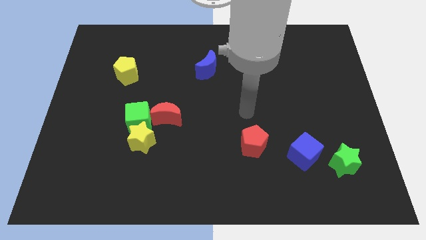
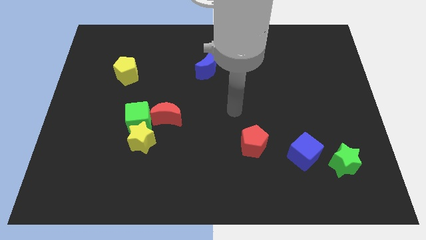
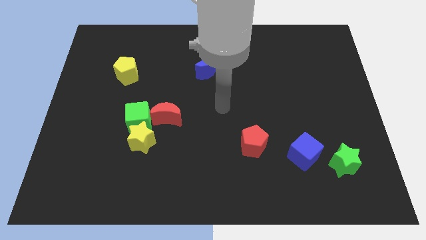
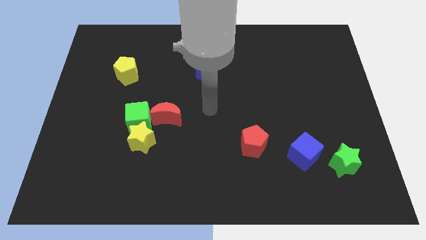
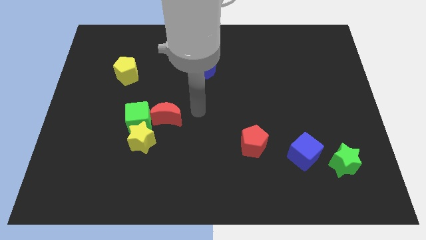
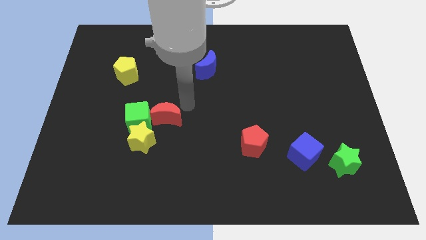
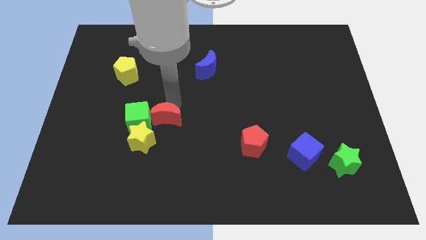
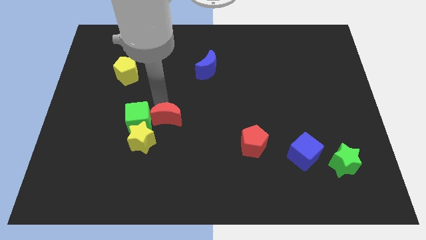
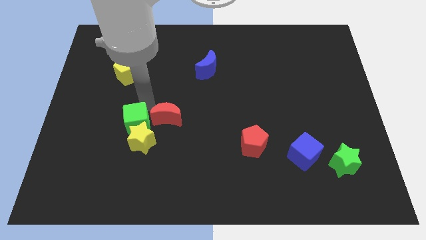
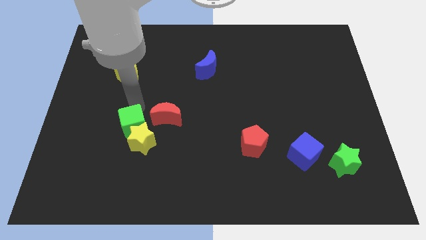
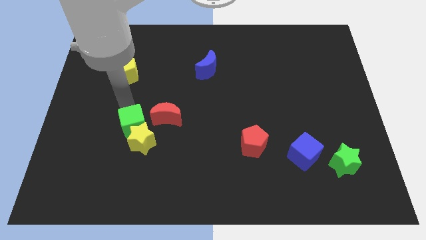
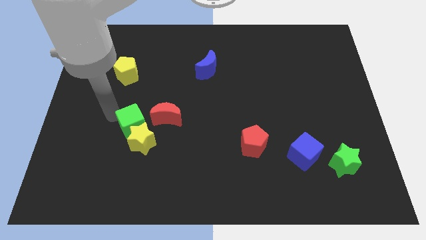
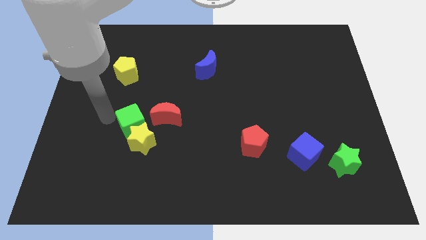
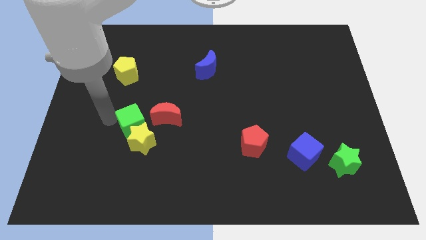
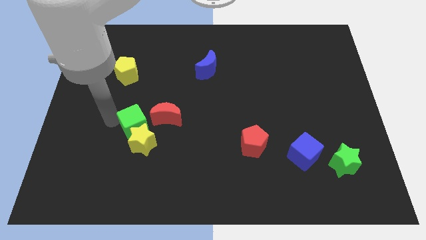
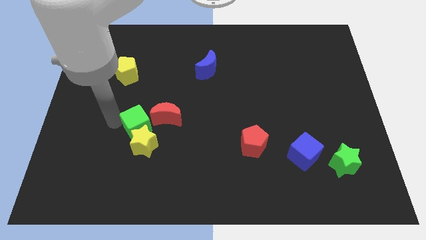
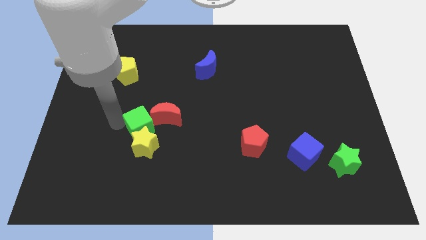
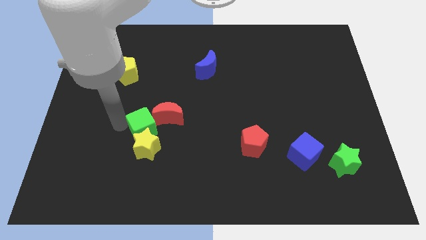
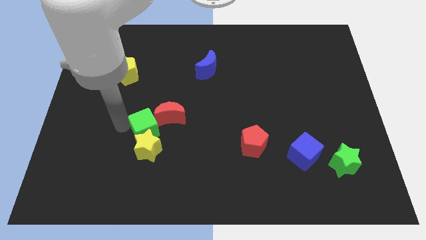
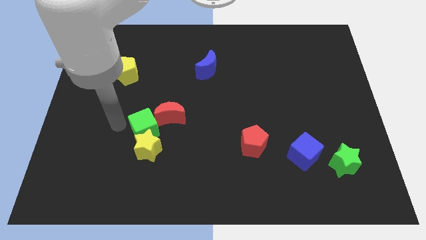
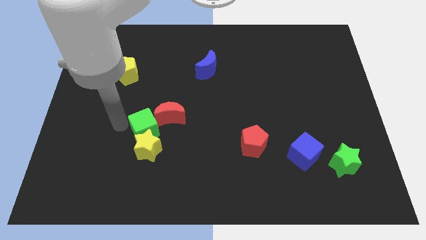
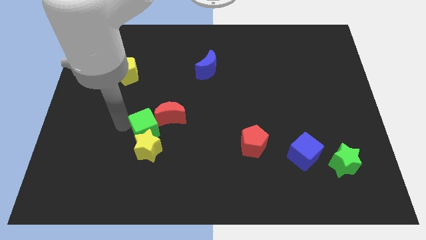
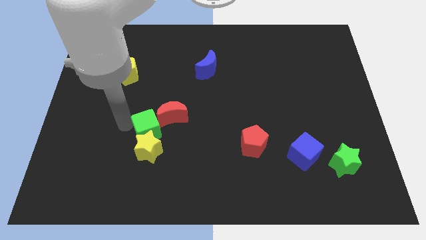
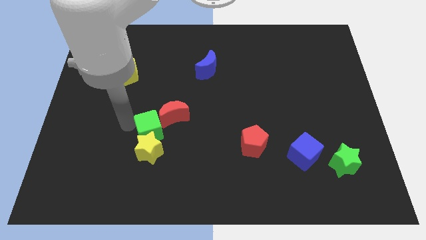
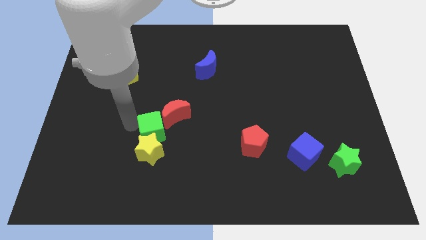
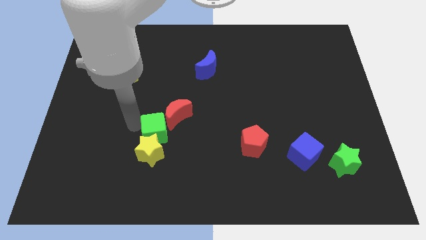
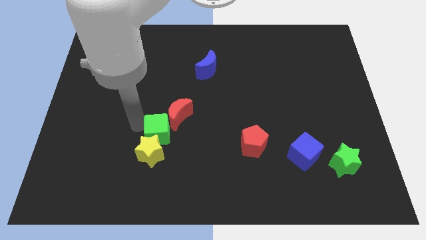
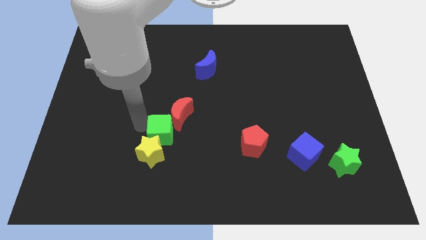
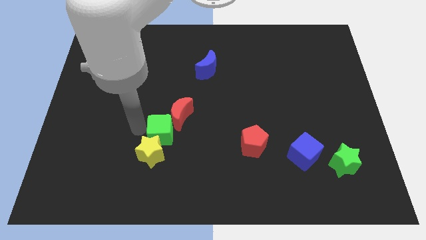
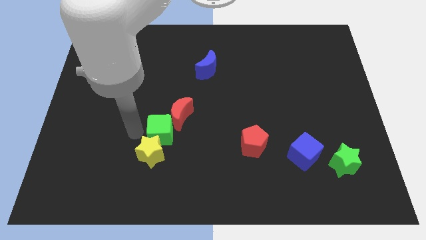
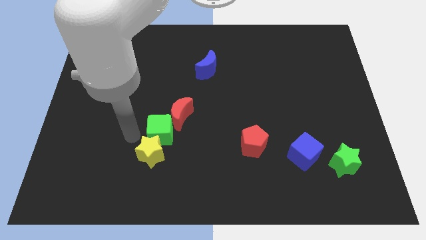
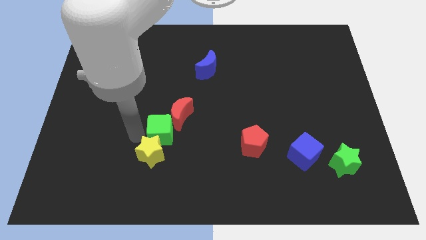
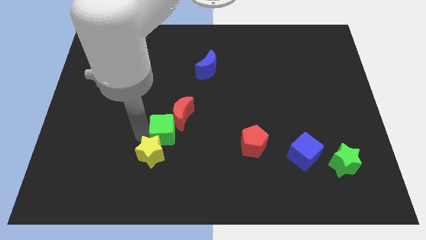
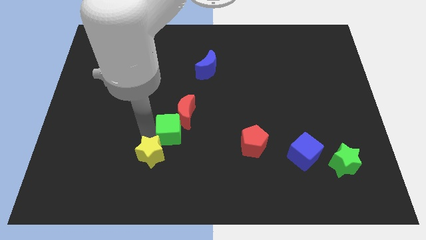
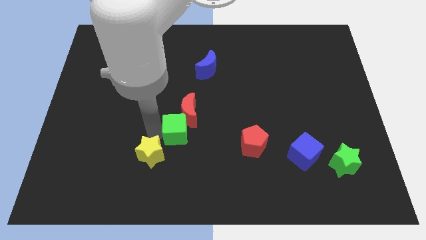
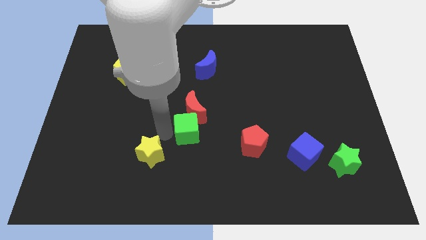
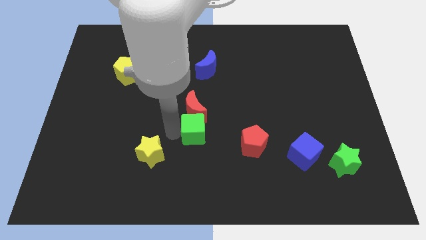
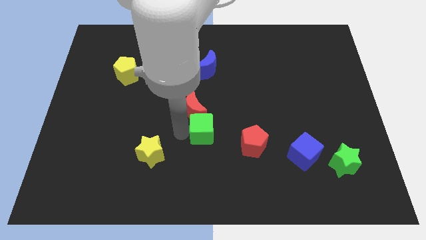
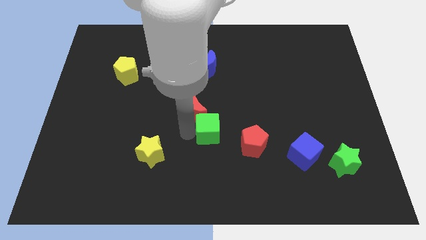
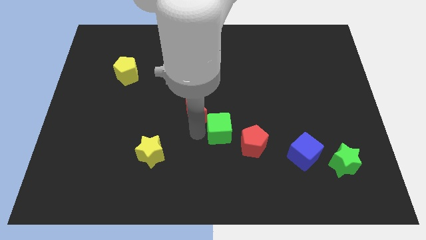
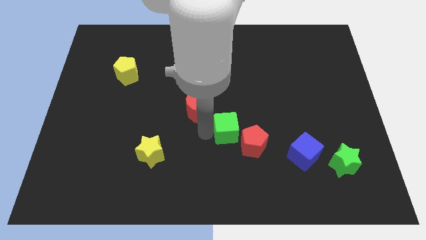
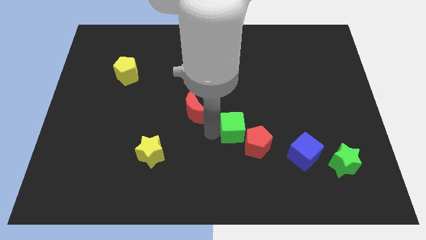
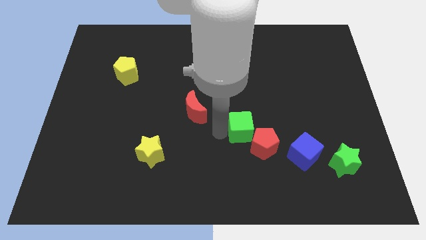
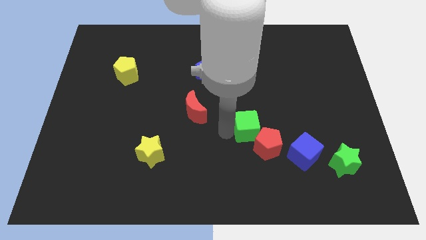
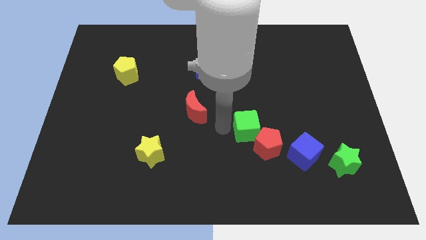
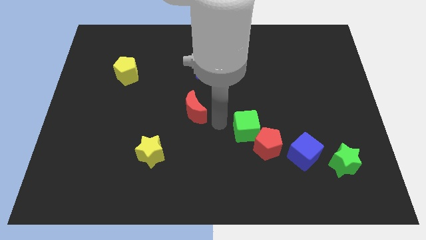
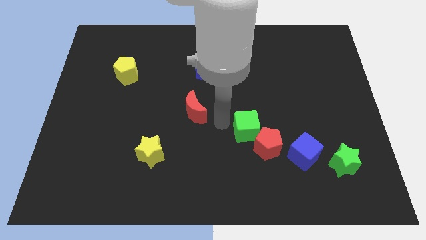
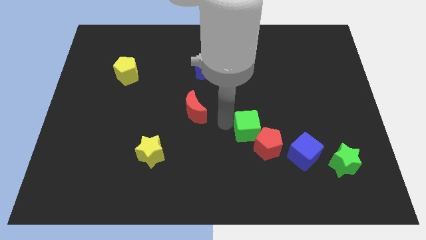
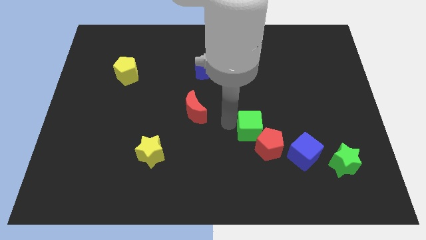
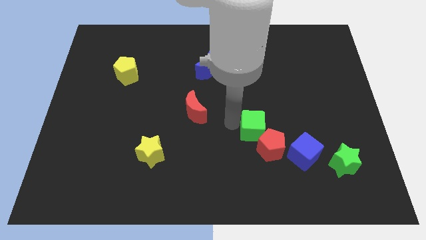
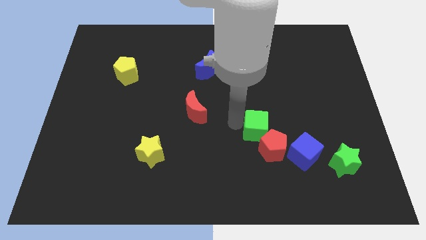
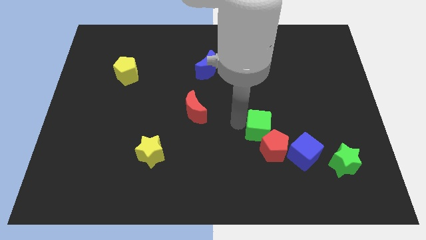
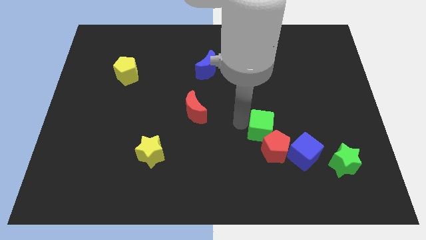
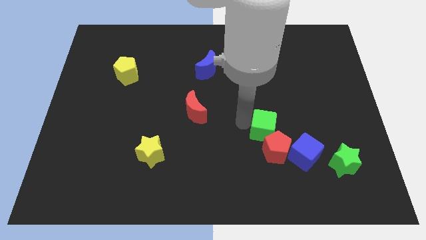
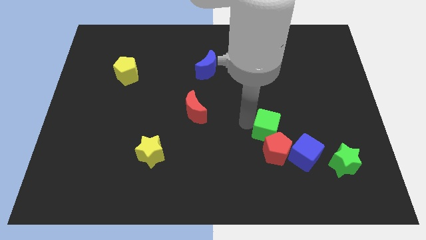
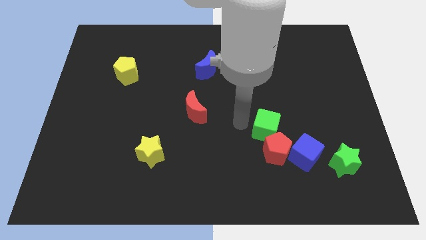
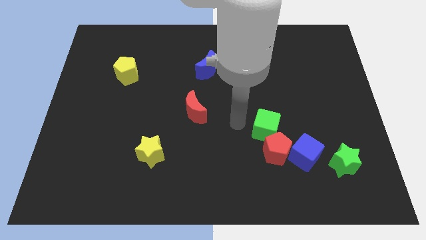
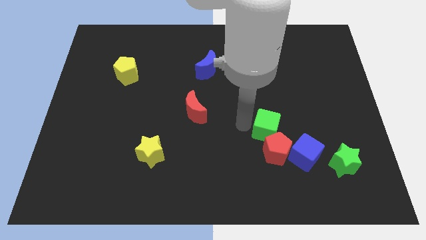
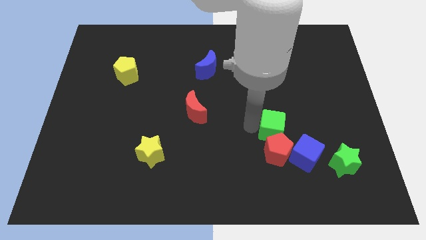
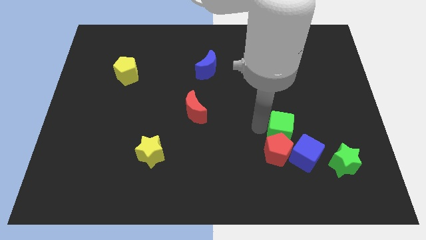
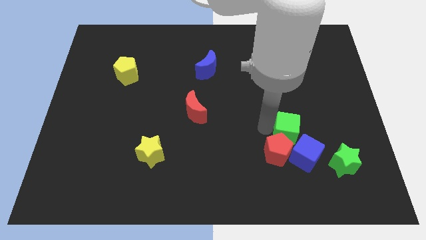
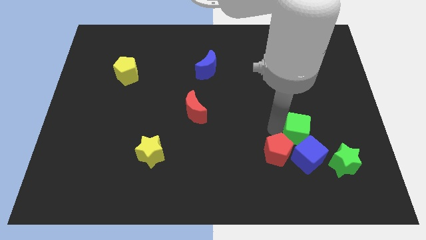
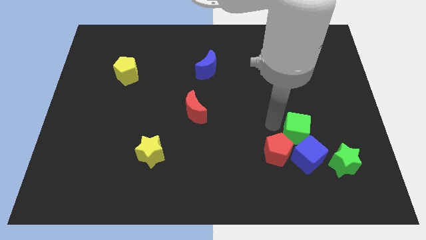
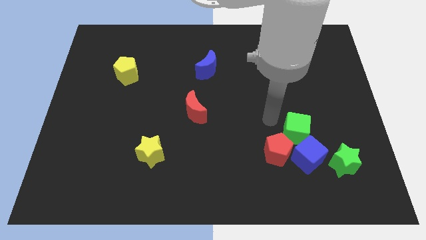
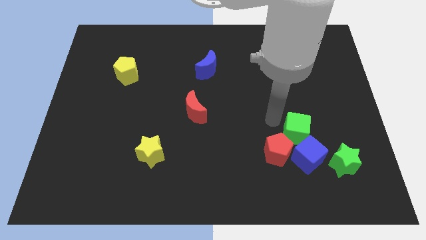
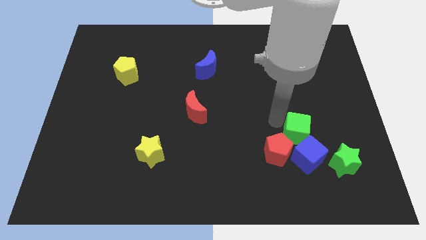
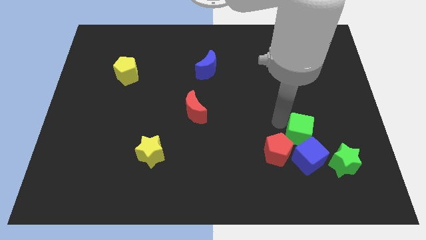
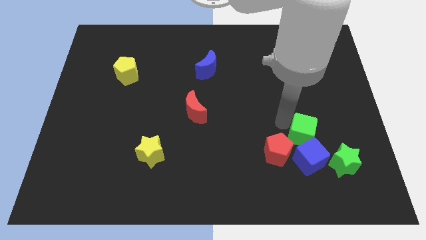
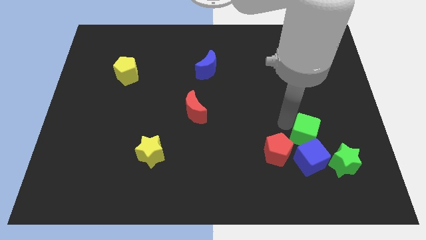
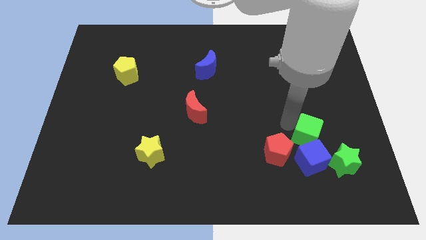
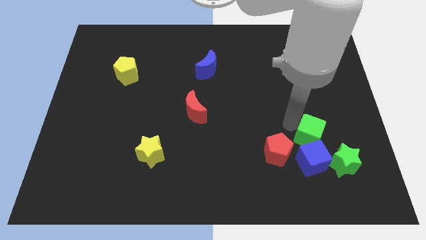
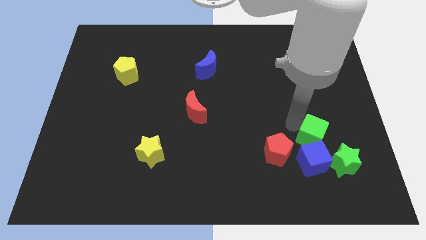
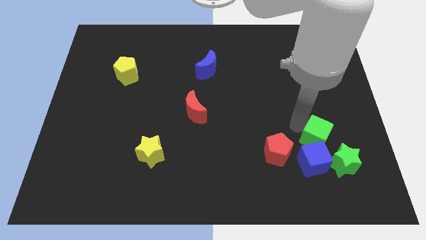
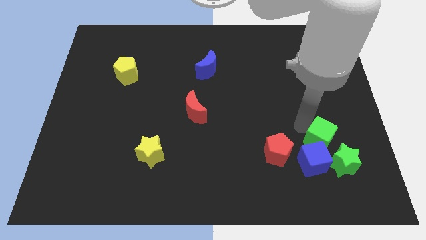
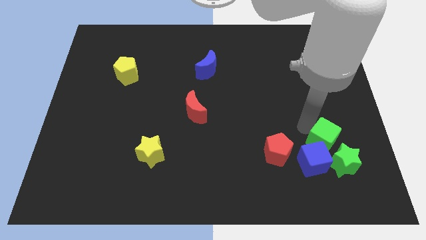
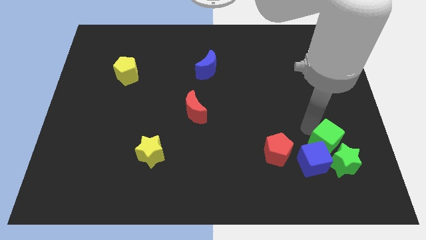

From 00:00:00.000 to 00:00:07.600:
put the green cube to the green star

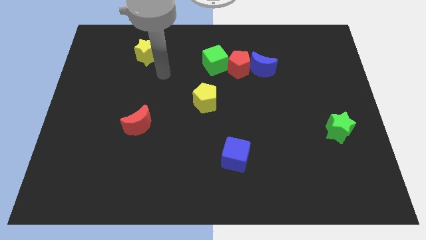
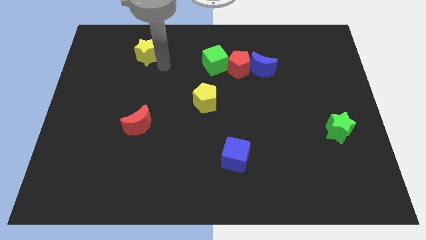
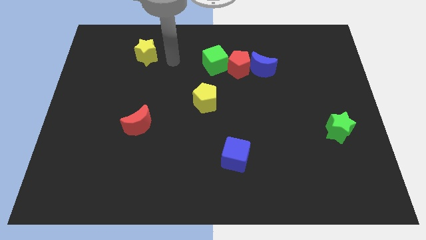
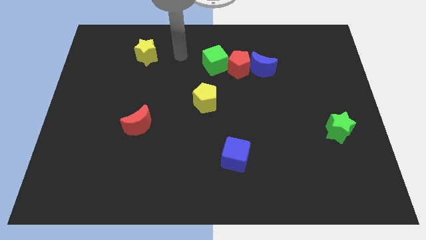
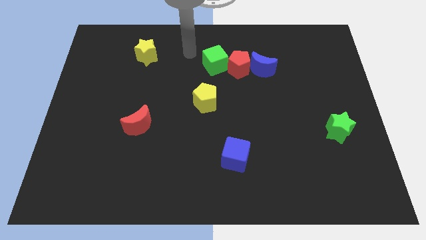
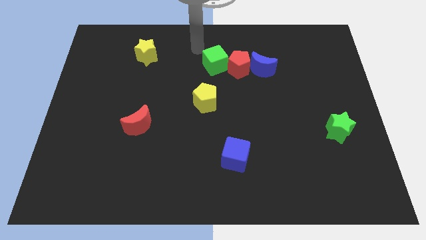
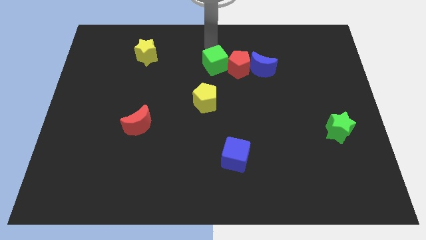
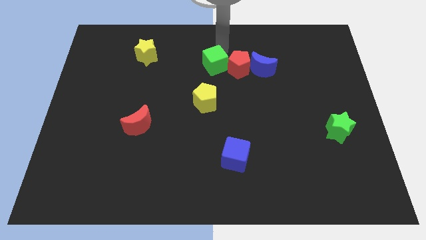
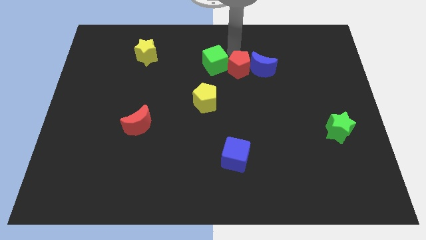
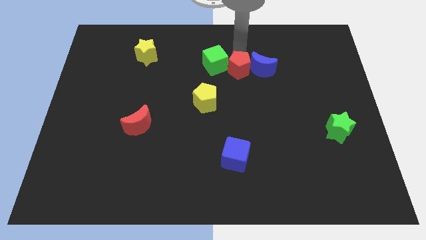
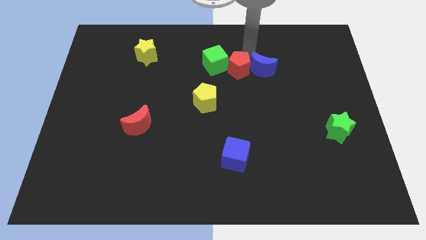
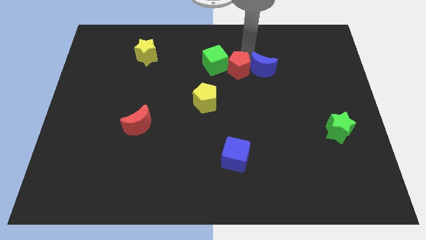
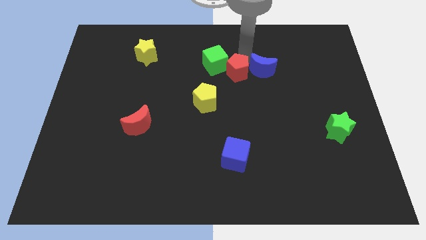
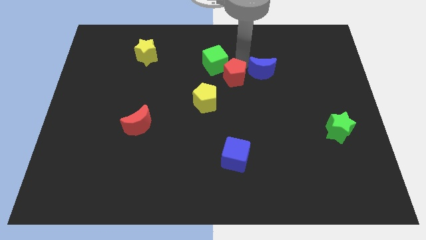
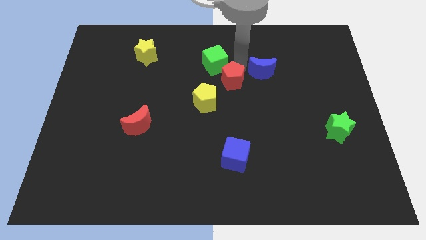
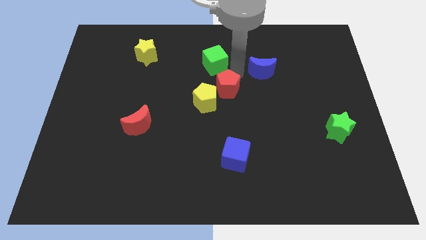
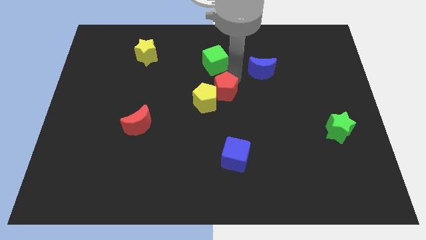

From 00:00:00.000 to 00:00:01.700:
push the red pentagon towards the yellow pentagon
